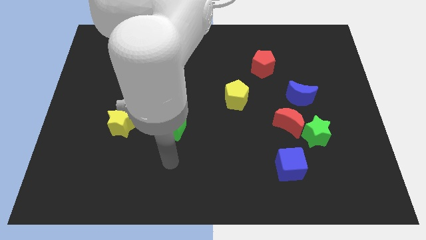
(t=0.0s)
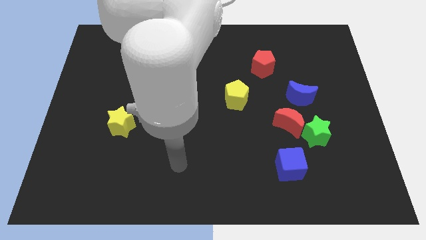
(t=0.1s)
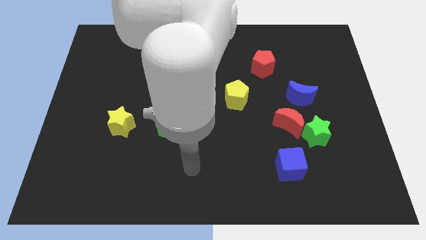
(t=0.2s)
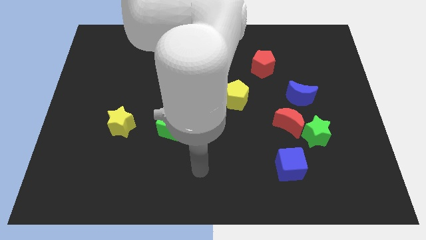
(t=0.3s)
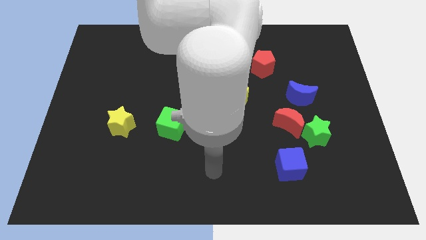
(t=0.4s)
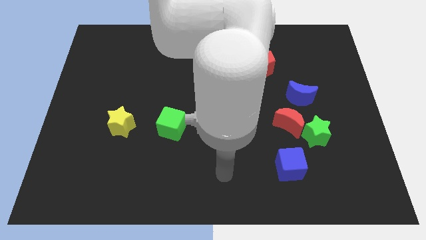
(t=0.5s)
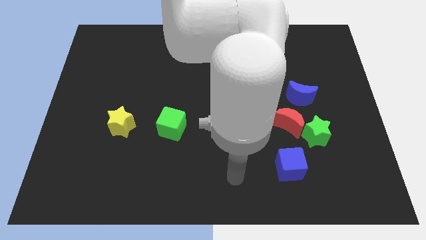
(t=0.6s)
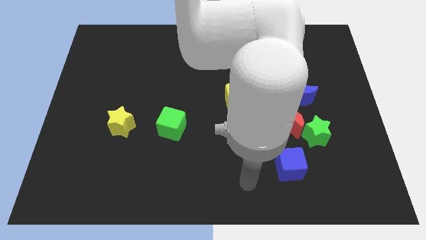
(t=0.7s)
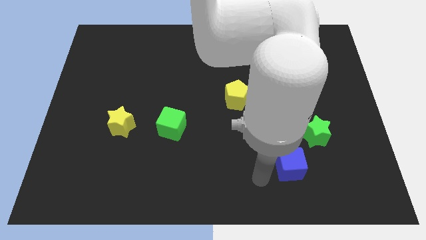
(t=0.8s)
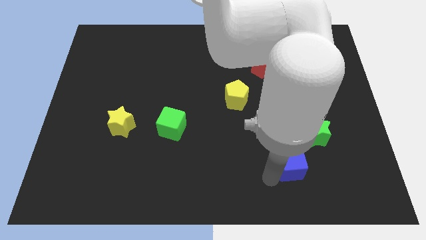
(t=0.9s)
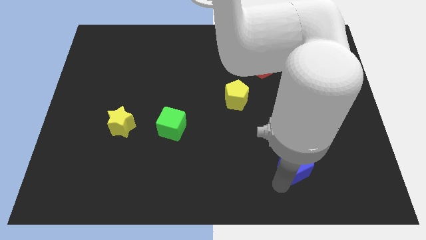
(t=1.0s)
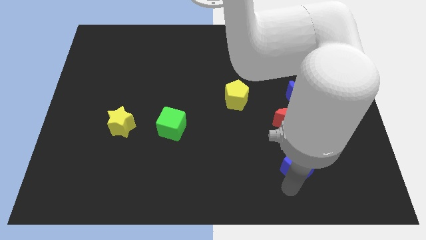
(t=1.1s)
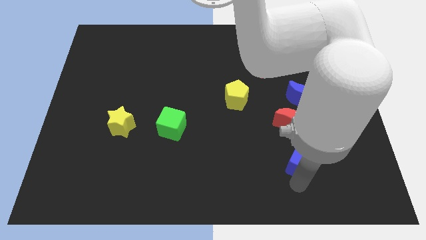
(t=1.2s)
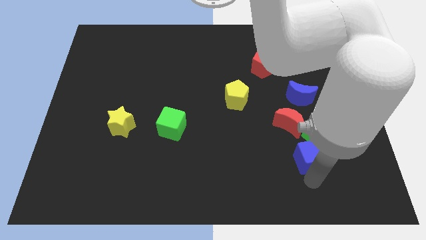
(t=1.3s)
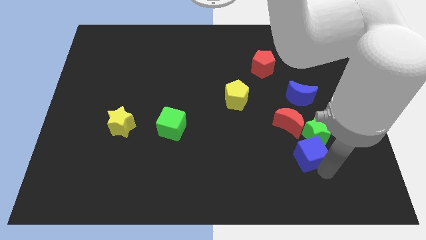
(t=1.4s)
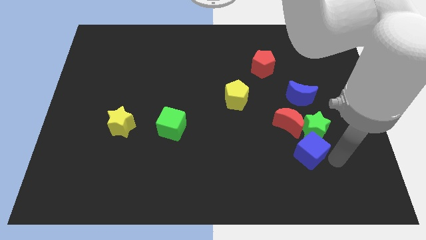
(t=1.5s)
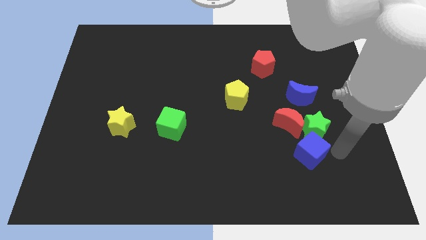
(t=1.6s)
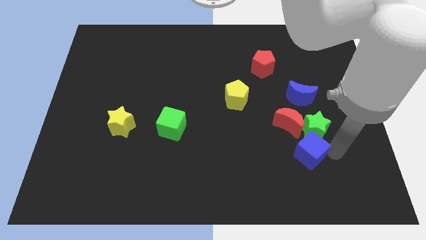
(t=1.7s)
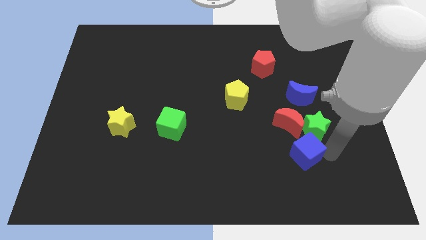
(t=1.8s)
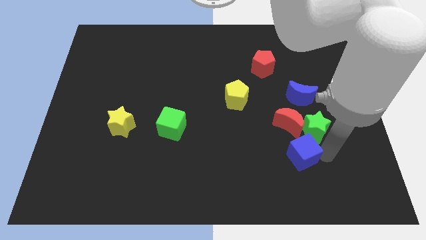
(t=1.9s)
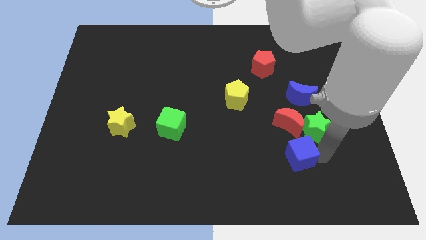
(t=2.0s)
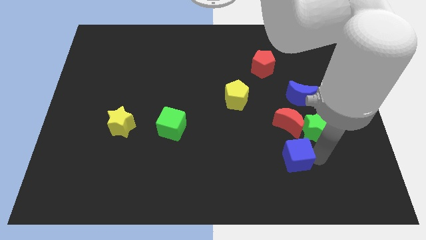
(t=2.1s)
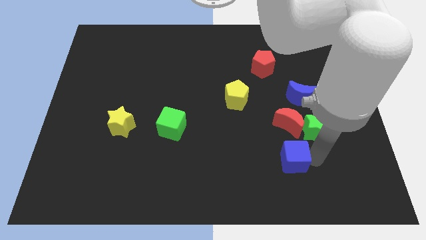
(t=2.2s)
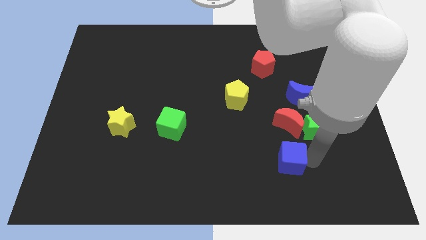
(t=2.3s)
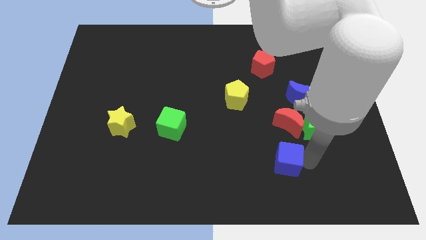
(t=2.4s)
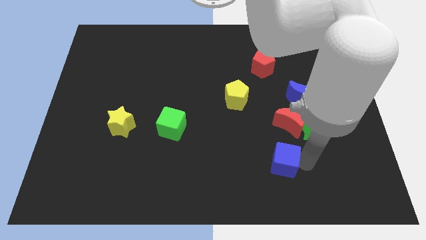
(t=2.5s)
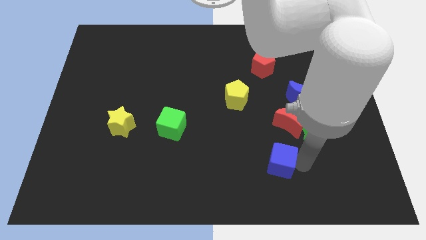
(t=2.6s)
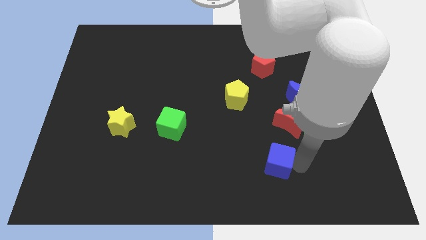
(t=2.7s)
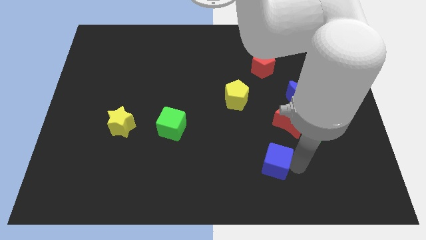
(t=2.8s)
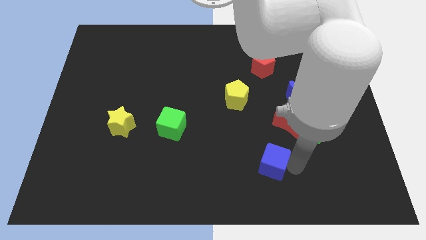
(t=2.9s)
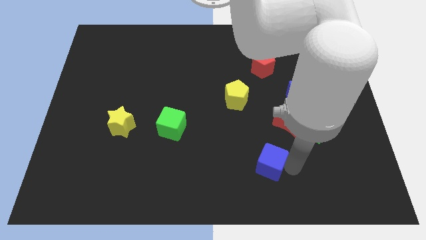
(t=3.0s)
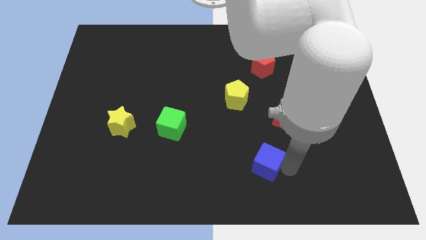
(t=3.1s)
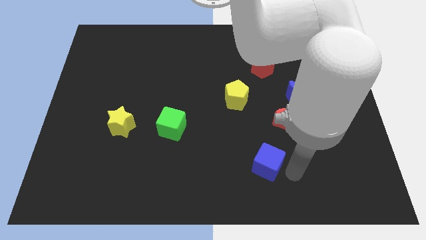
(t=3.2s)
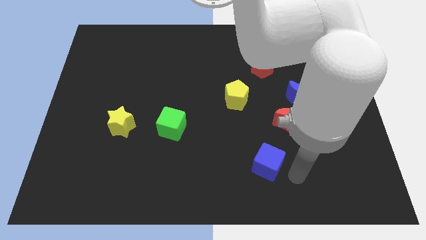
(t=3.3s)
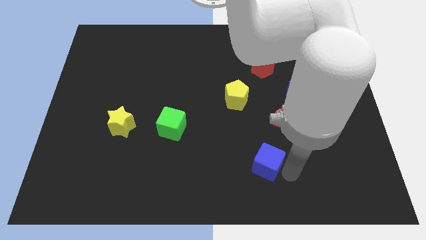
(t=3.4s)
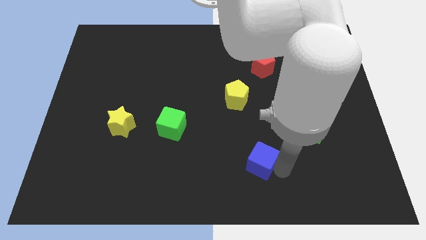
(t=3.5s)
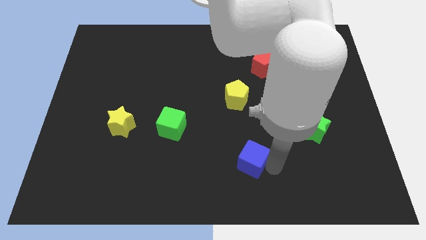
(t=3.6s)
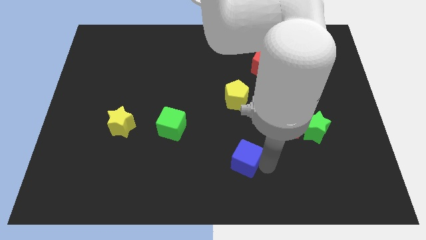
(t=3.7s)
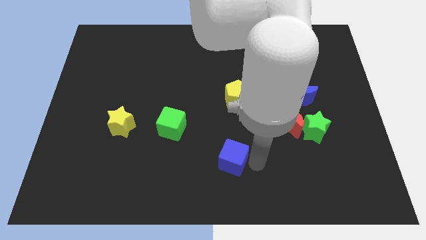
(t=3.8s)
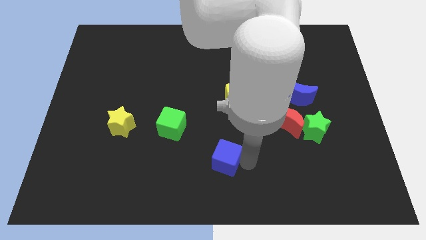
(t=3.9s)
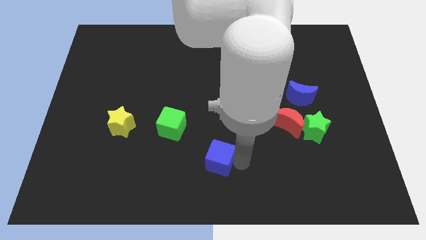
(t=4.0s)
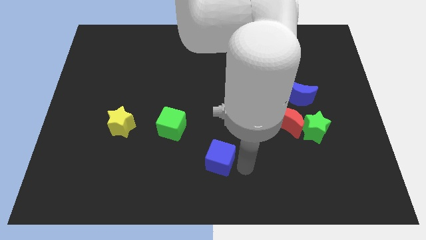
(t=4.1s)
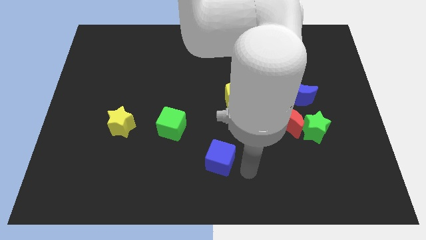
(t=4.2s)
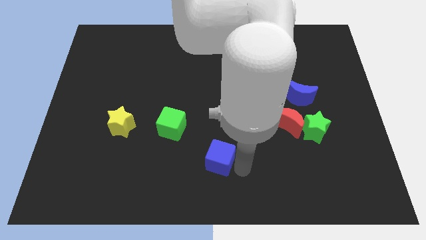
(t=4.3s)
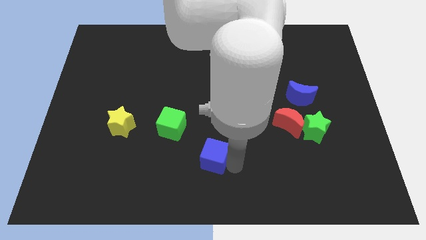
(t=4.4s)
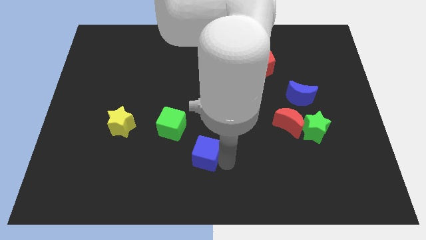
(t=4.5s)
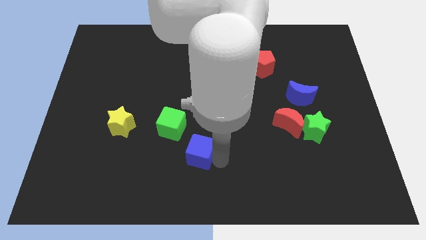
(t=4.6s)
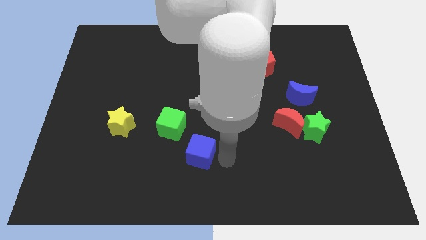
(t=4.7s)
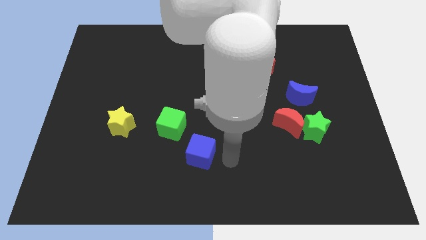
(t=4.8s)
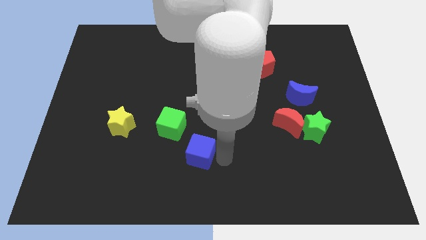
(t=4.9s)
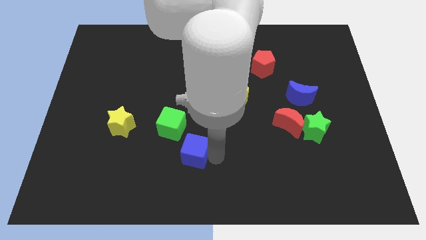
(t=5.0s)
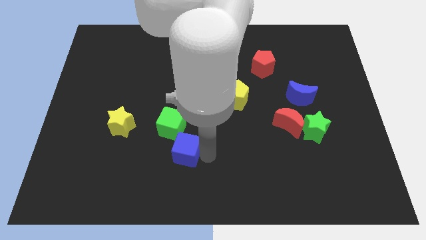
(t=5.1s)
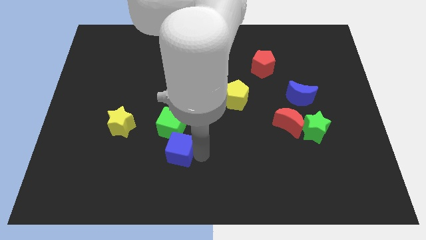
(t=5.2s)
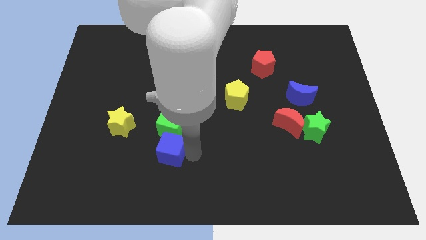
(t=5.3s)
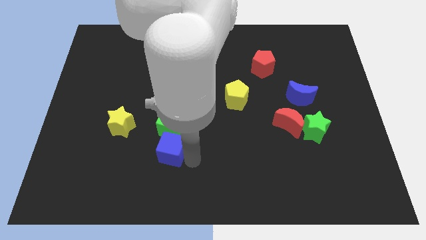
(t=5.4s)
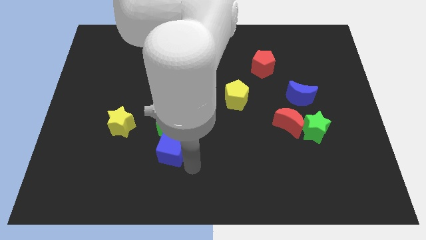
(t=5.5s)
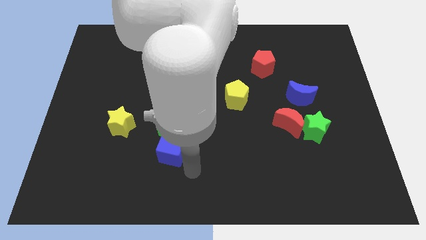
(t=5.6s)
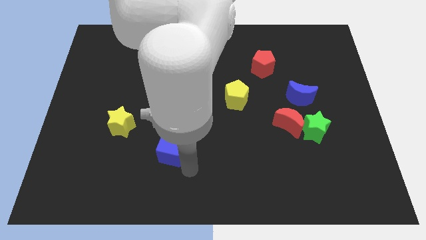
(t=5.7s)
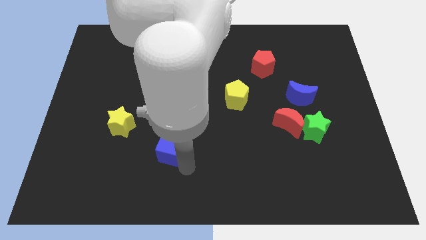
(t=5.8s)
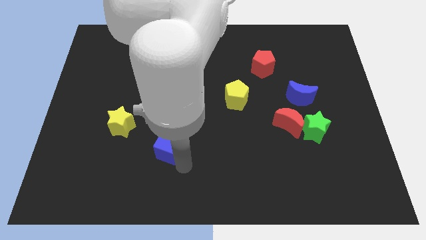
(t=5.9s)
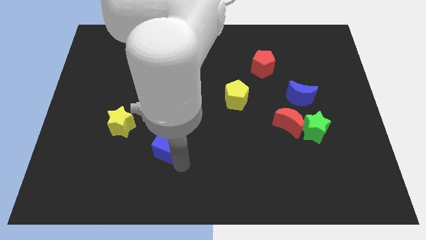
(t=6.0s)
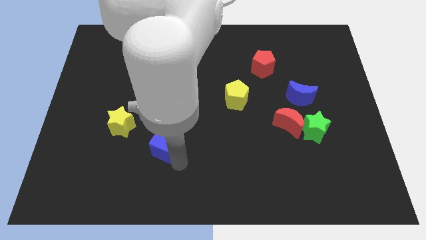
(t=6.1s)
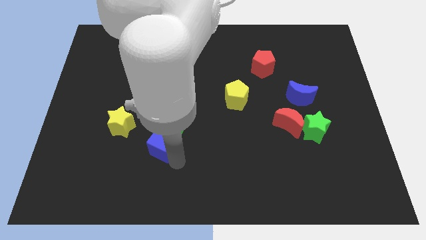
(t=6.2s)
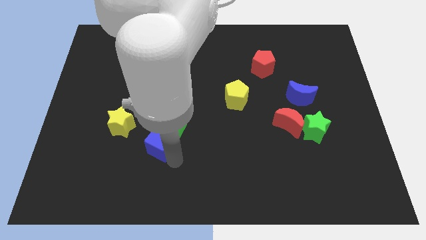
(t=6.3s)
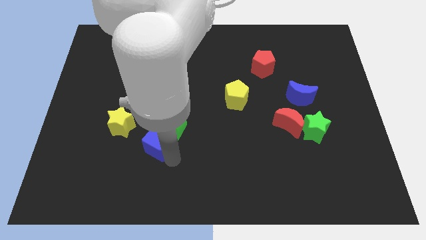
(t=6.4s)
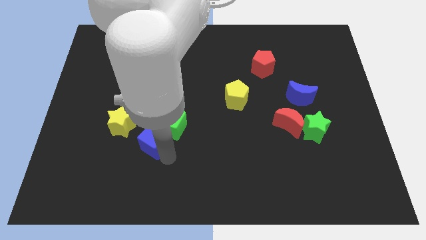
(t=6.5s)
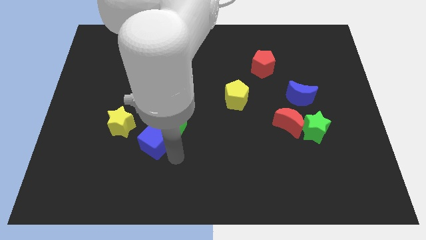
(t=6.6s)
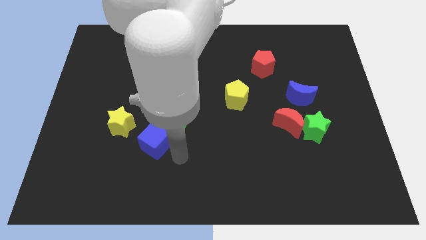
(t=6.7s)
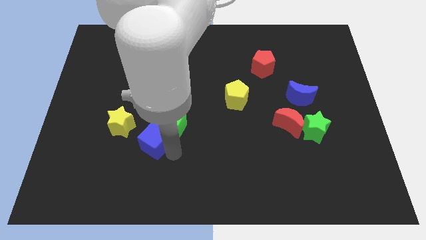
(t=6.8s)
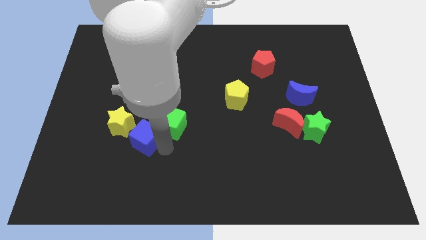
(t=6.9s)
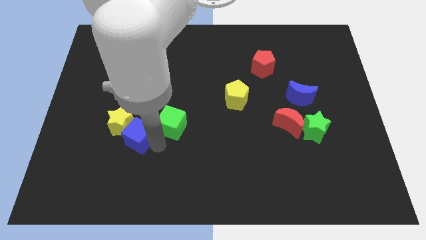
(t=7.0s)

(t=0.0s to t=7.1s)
push the blue cube to the yellow star

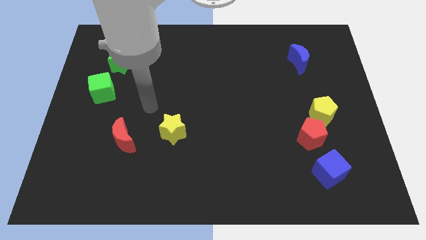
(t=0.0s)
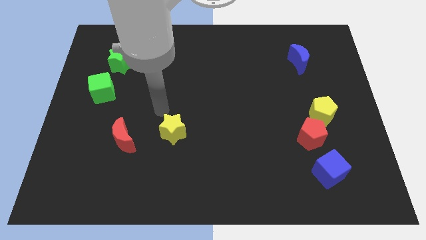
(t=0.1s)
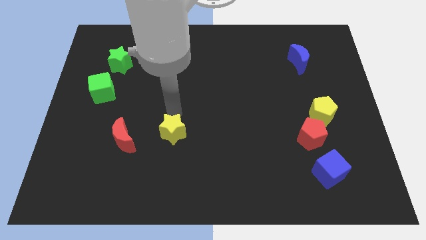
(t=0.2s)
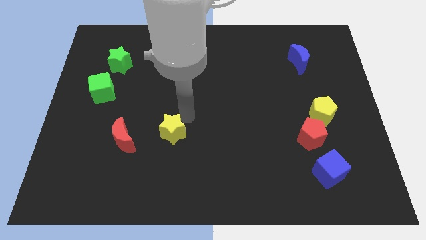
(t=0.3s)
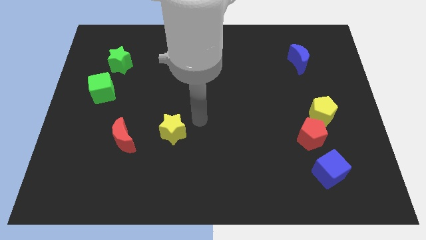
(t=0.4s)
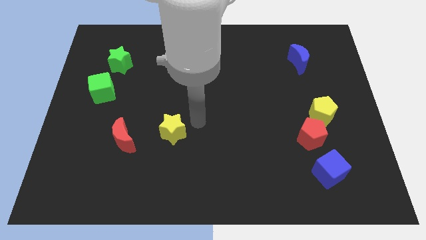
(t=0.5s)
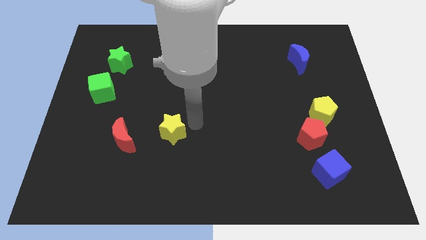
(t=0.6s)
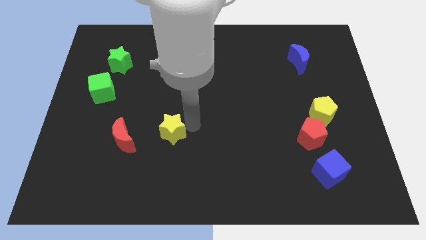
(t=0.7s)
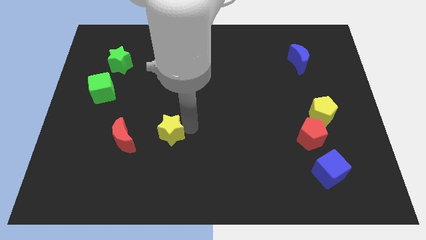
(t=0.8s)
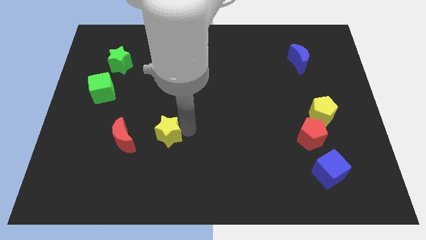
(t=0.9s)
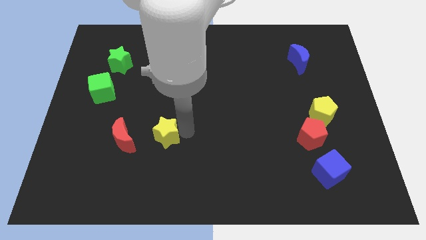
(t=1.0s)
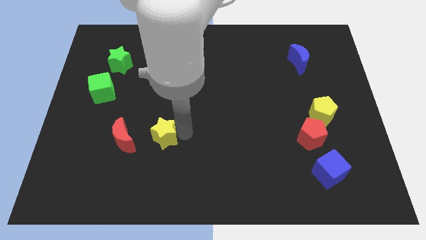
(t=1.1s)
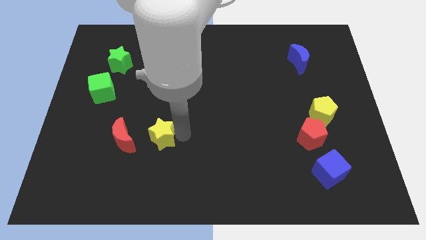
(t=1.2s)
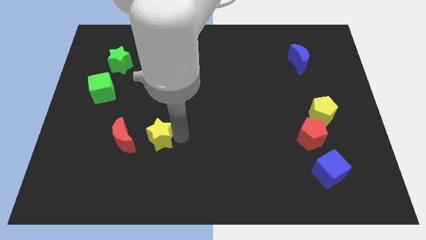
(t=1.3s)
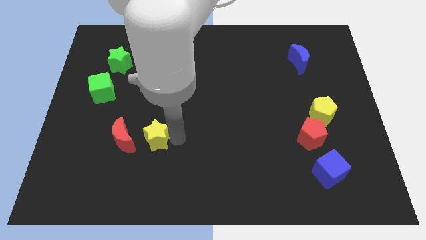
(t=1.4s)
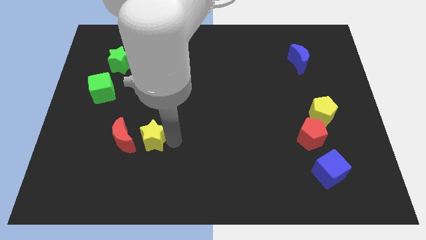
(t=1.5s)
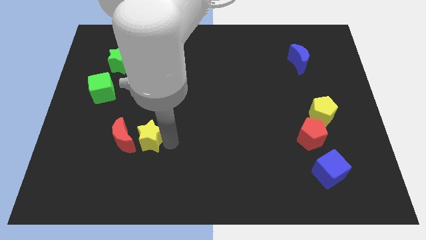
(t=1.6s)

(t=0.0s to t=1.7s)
push the yellow star towards the red moon
